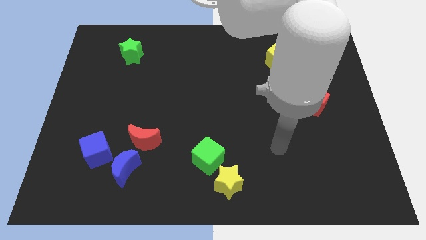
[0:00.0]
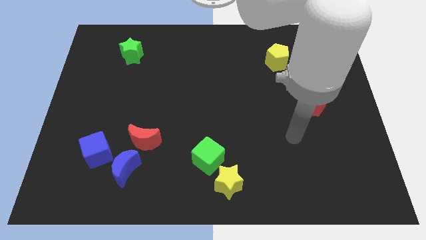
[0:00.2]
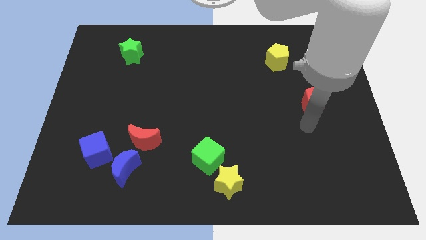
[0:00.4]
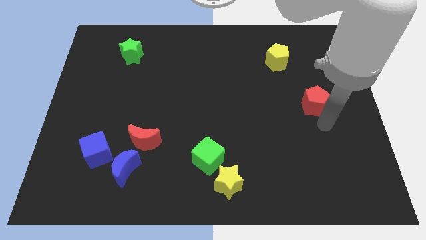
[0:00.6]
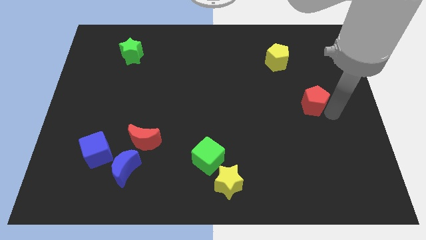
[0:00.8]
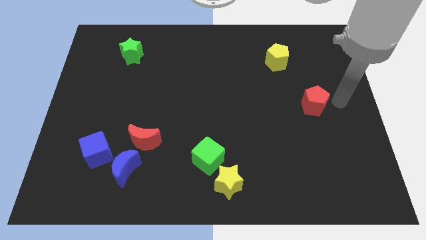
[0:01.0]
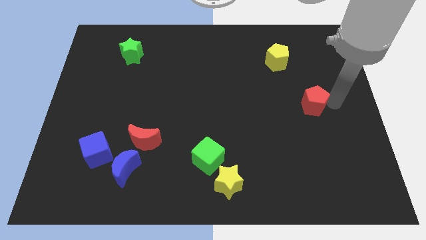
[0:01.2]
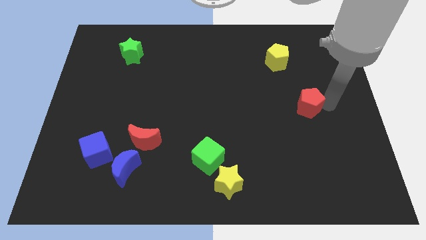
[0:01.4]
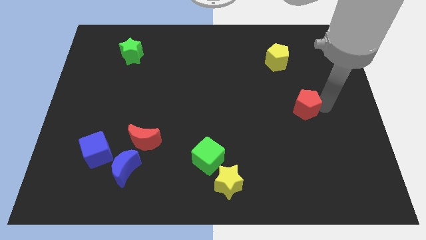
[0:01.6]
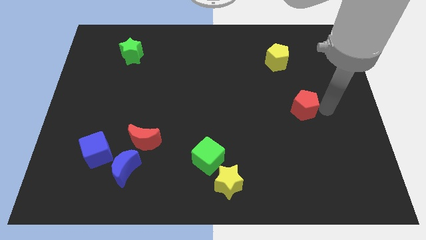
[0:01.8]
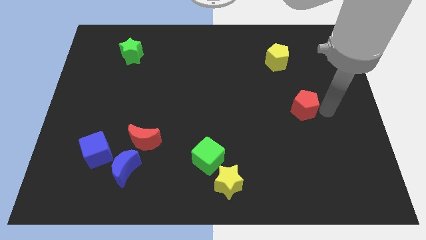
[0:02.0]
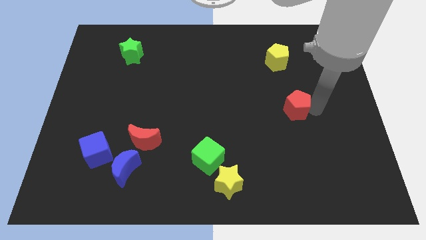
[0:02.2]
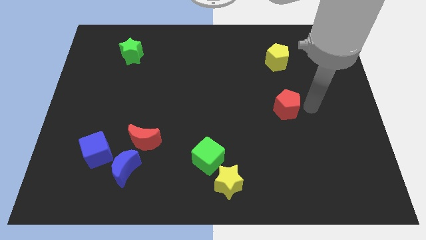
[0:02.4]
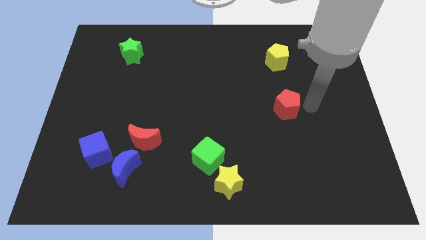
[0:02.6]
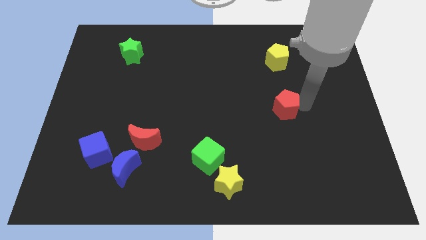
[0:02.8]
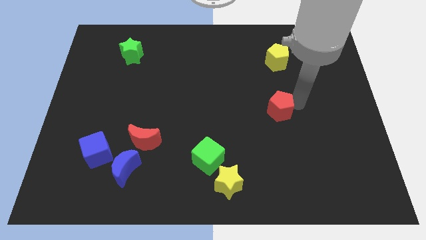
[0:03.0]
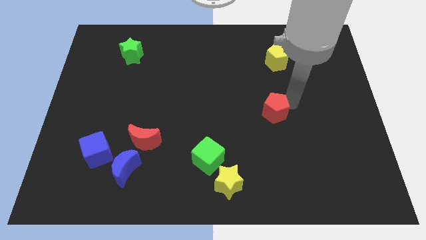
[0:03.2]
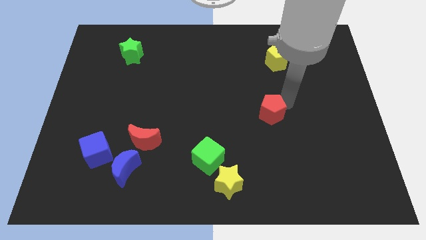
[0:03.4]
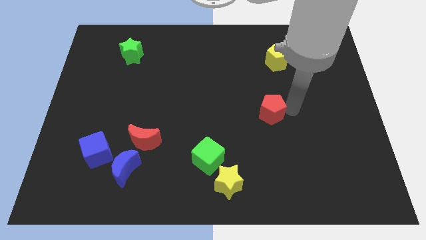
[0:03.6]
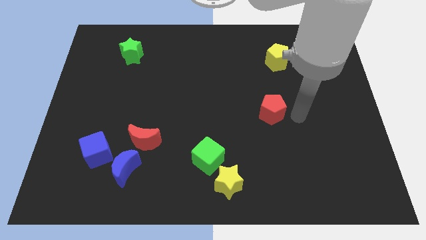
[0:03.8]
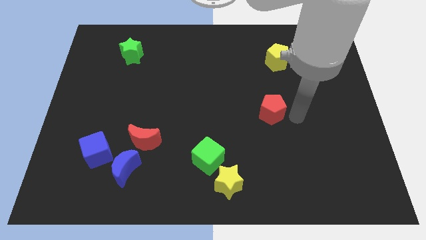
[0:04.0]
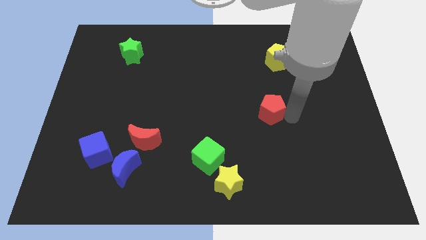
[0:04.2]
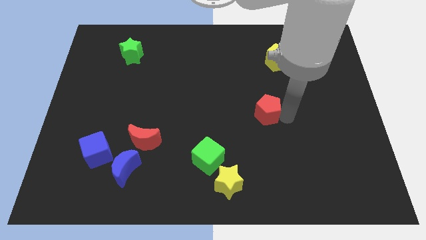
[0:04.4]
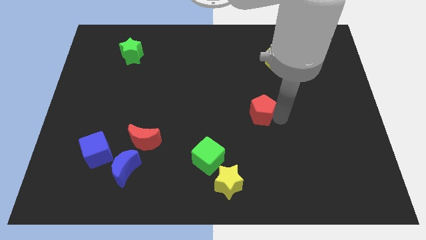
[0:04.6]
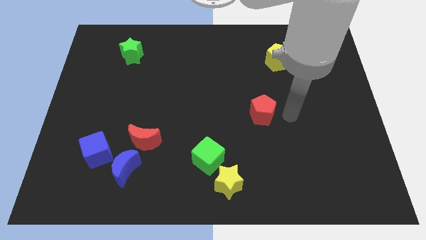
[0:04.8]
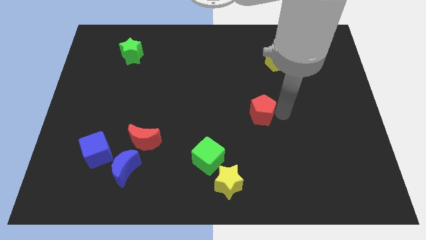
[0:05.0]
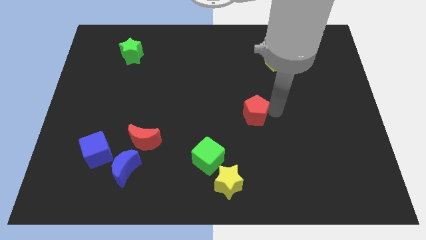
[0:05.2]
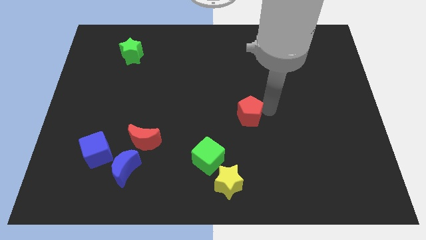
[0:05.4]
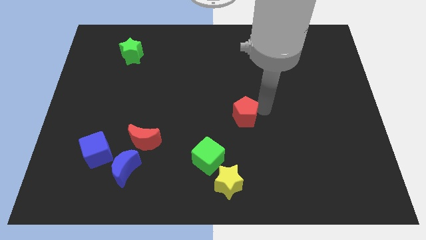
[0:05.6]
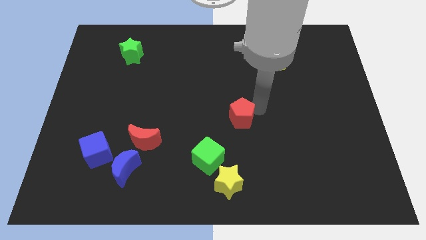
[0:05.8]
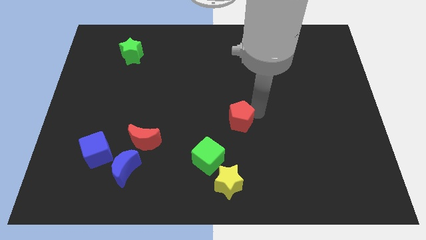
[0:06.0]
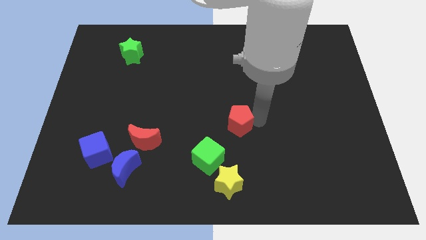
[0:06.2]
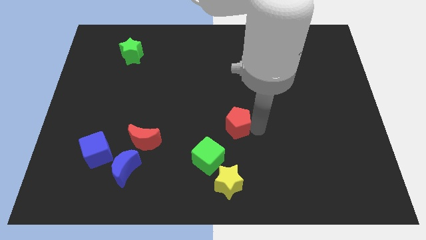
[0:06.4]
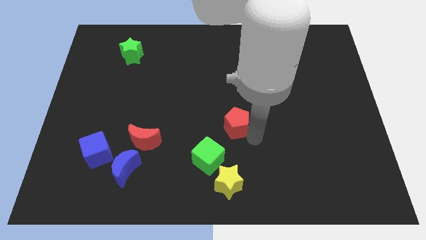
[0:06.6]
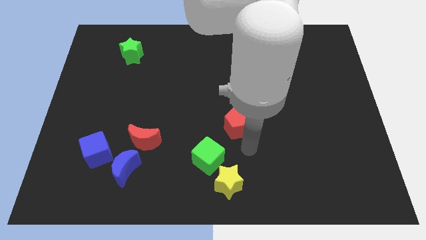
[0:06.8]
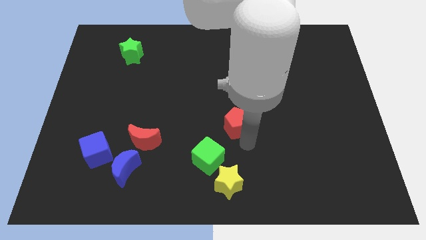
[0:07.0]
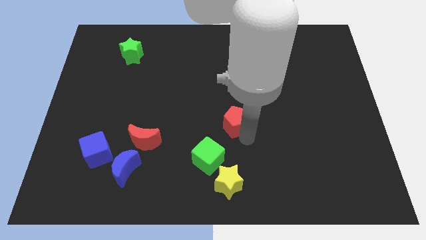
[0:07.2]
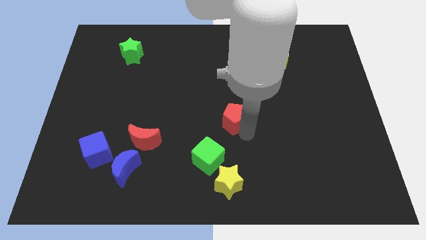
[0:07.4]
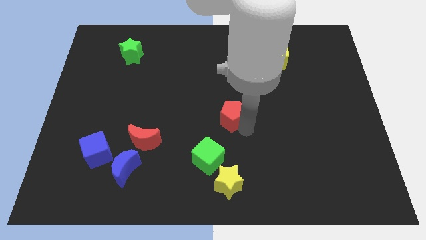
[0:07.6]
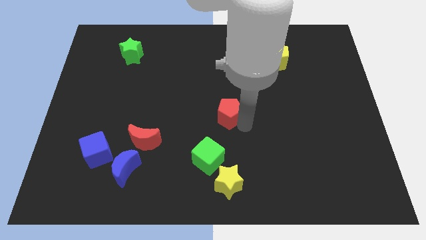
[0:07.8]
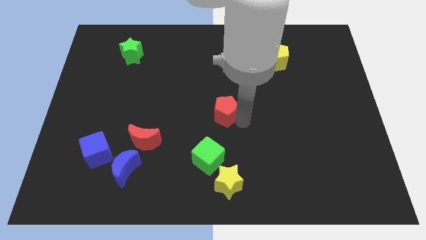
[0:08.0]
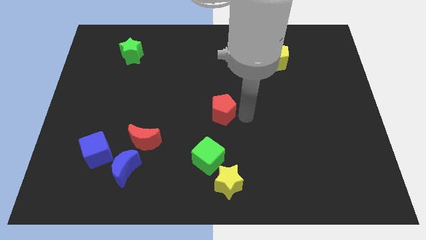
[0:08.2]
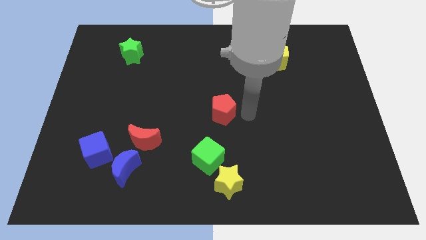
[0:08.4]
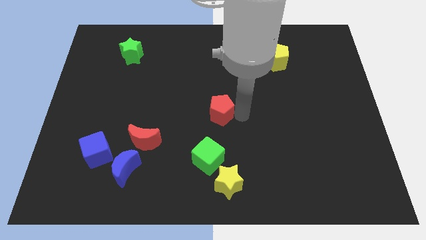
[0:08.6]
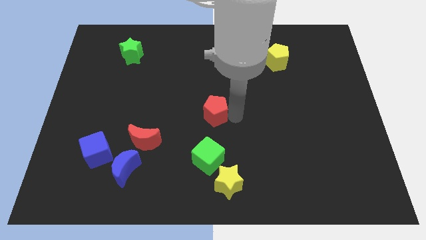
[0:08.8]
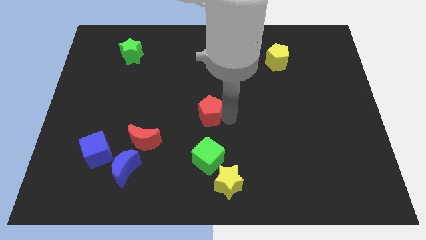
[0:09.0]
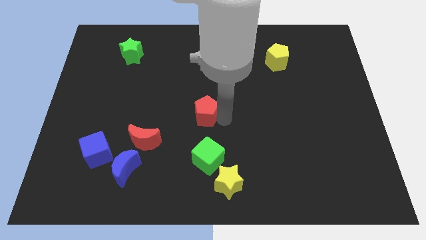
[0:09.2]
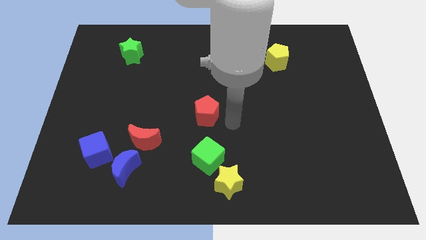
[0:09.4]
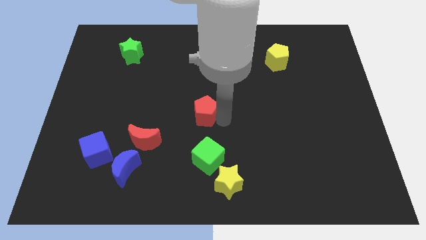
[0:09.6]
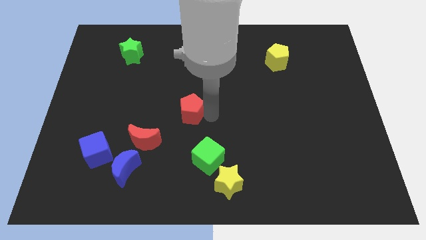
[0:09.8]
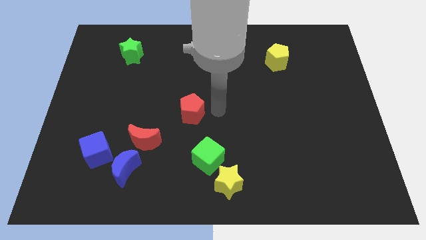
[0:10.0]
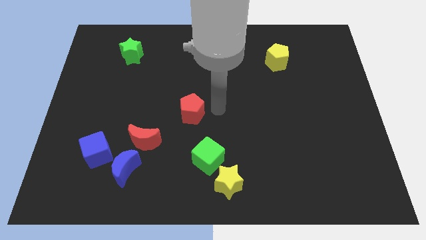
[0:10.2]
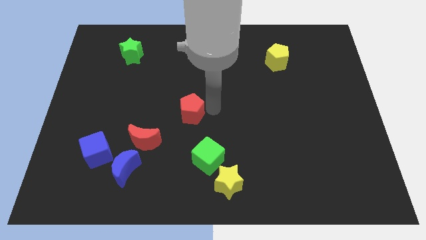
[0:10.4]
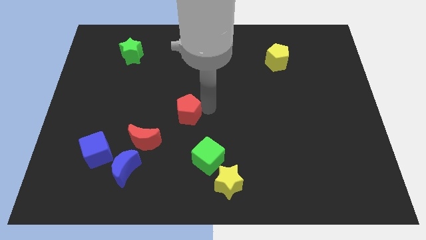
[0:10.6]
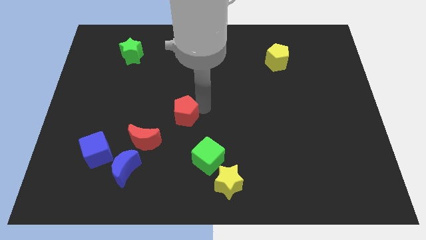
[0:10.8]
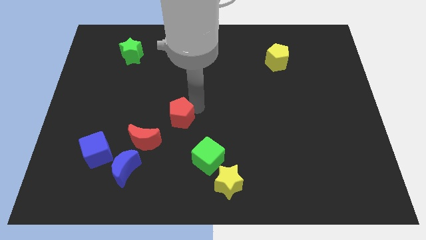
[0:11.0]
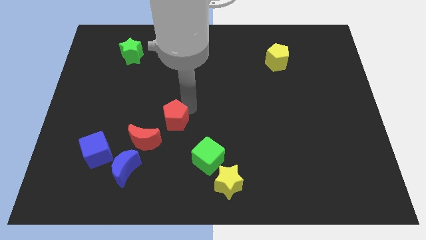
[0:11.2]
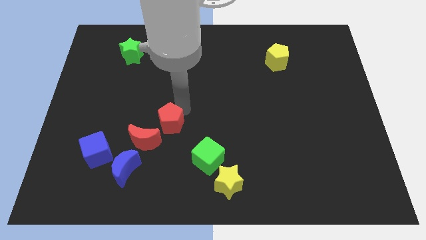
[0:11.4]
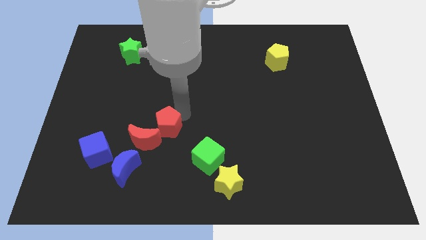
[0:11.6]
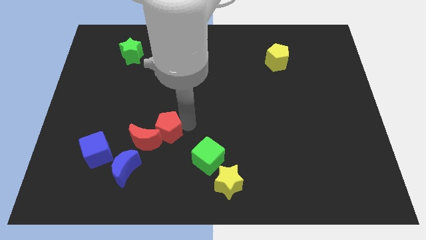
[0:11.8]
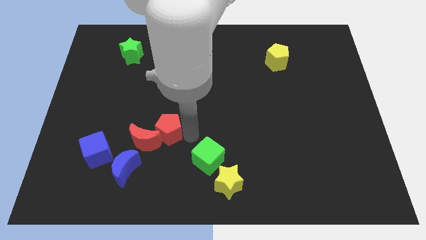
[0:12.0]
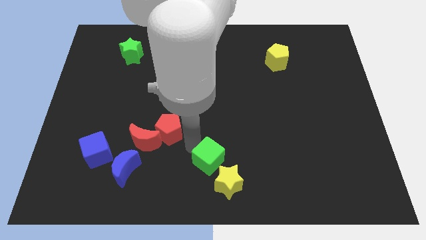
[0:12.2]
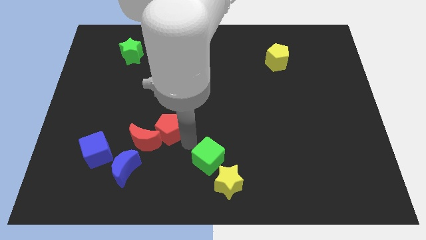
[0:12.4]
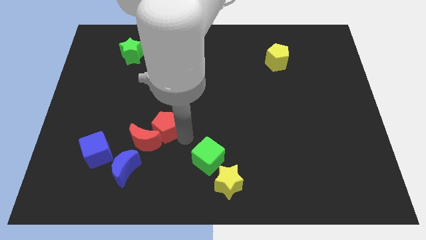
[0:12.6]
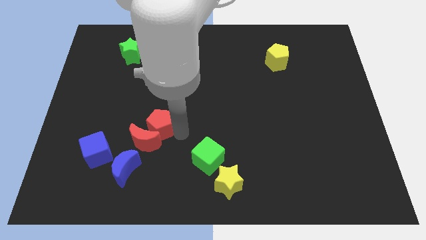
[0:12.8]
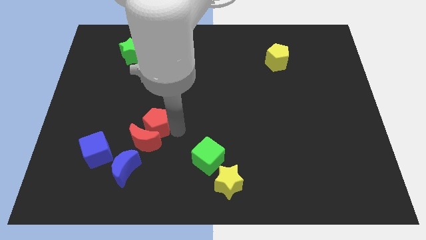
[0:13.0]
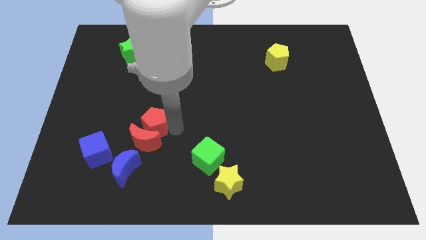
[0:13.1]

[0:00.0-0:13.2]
put the red pentagon diagonally up and to the left of the red moon

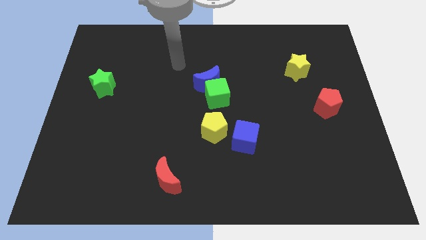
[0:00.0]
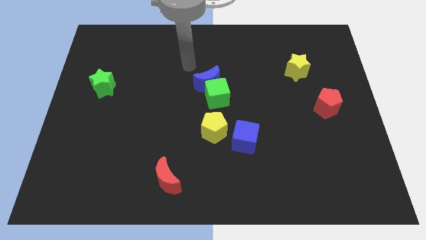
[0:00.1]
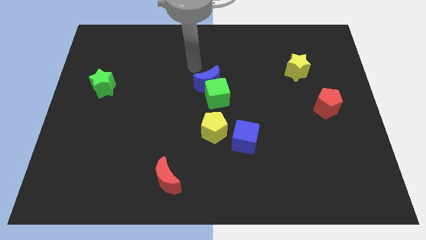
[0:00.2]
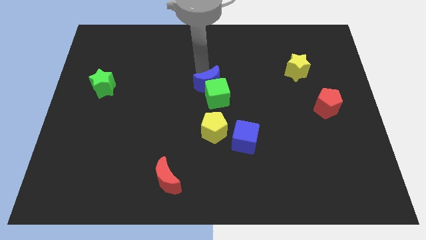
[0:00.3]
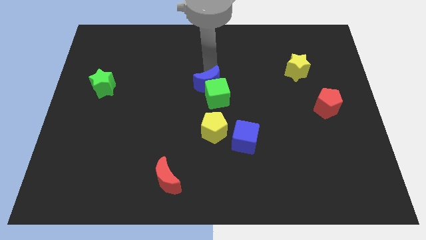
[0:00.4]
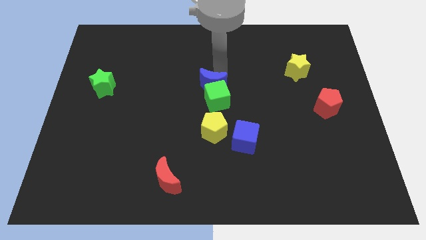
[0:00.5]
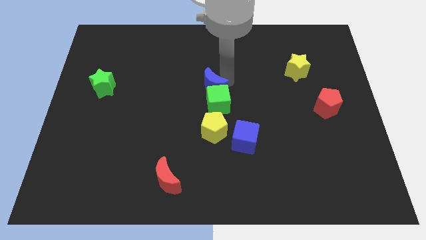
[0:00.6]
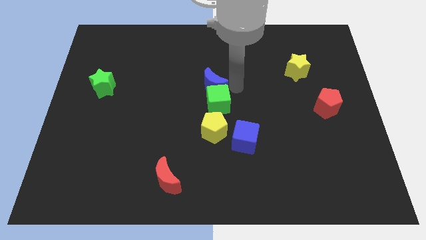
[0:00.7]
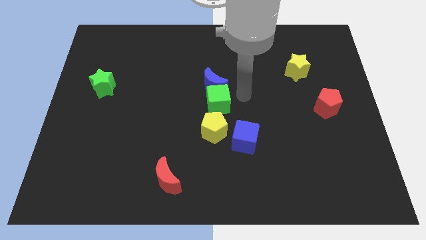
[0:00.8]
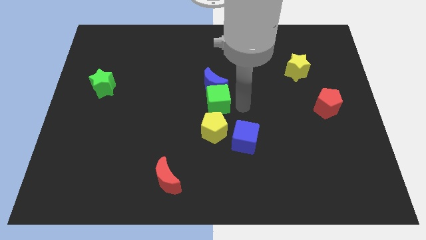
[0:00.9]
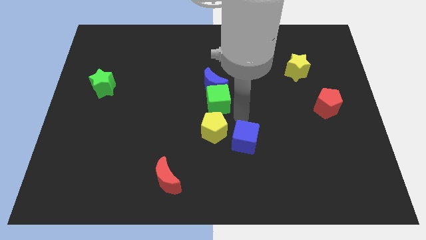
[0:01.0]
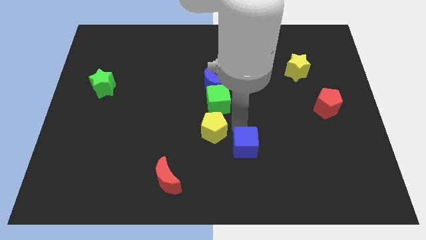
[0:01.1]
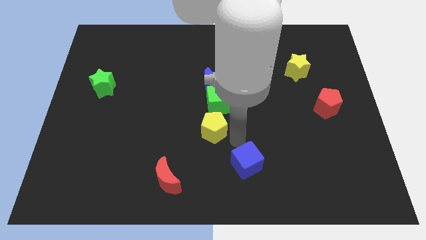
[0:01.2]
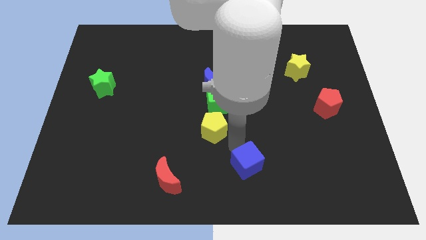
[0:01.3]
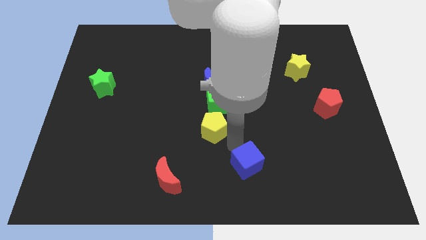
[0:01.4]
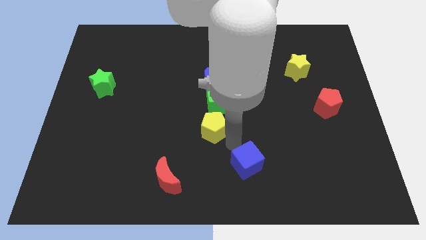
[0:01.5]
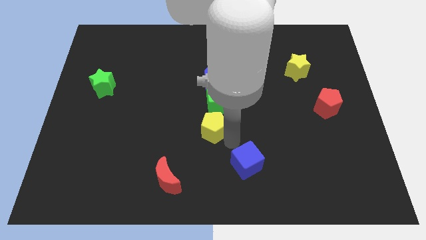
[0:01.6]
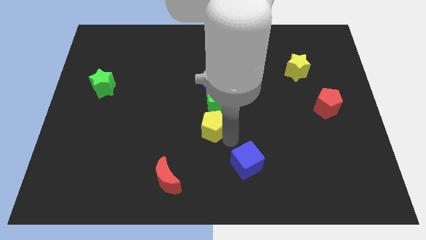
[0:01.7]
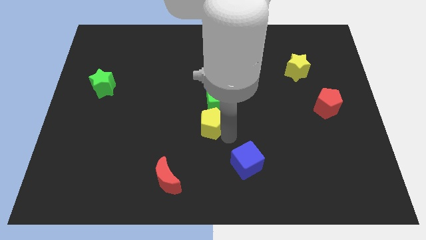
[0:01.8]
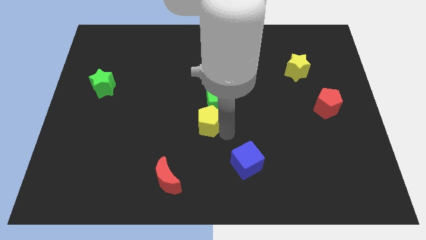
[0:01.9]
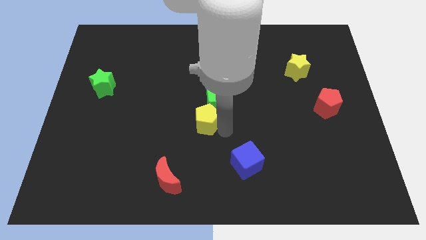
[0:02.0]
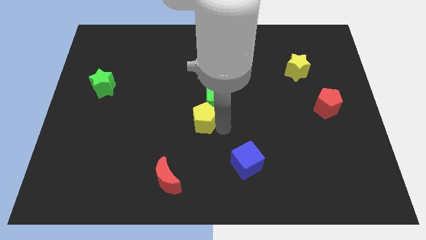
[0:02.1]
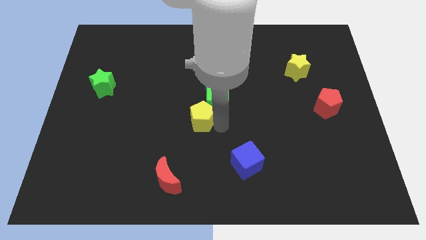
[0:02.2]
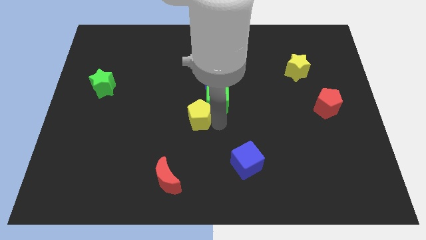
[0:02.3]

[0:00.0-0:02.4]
put the yellow pentagon to the bottom left of the blue moon
